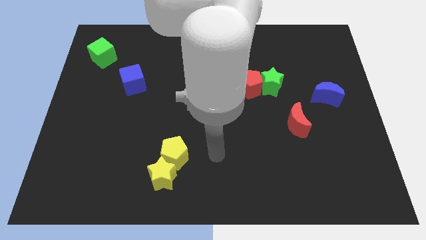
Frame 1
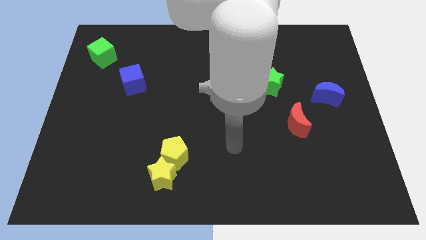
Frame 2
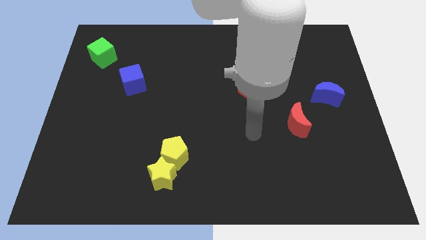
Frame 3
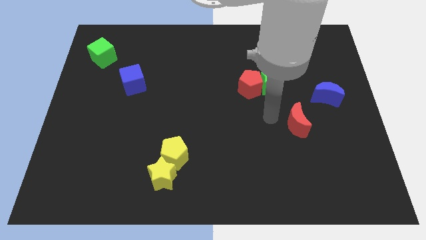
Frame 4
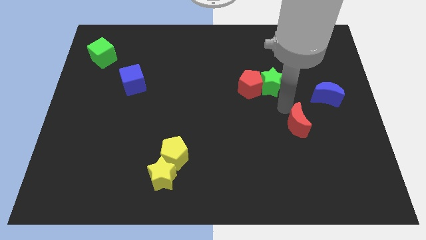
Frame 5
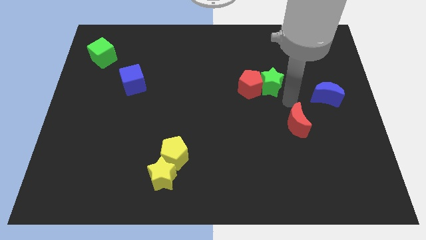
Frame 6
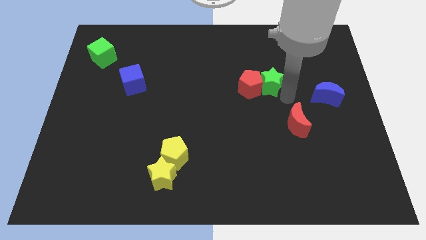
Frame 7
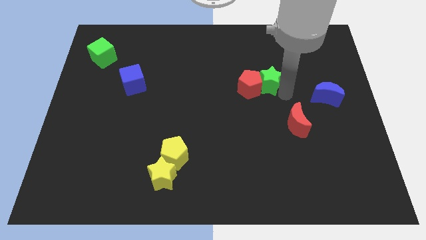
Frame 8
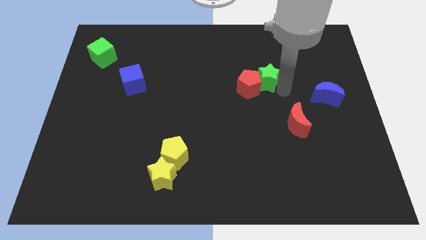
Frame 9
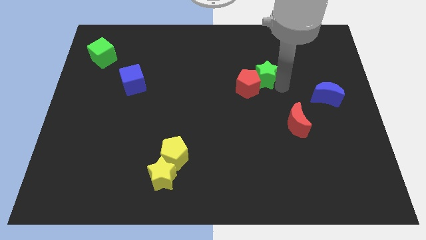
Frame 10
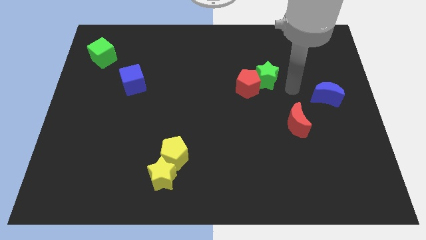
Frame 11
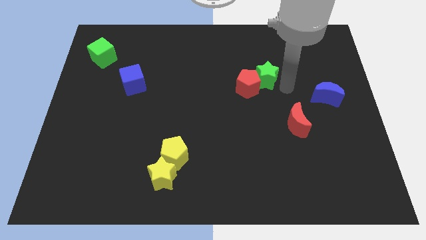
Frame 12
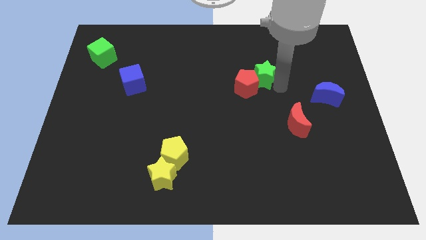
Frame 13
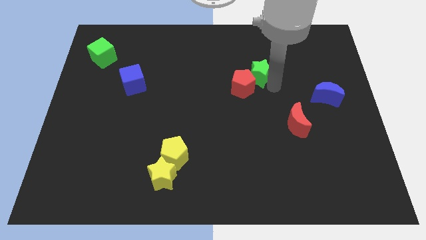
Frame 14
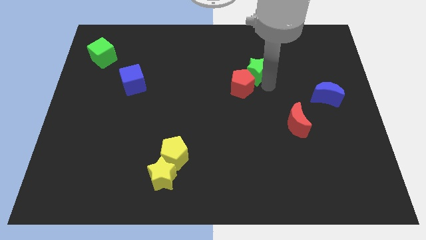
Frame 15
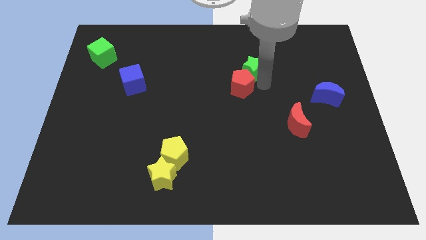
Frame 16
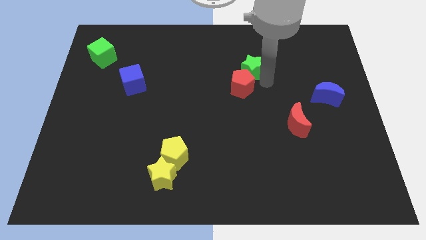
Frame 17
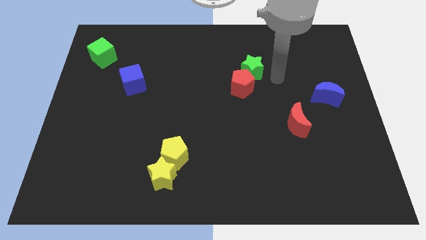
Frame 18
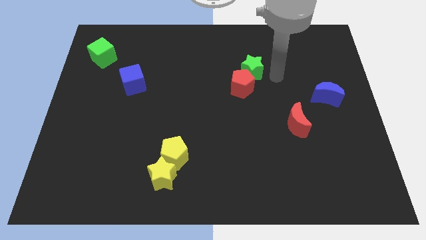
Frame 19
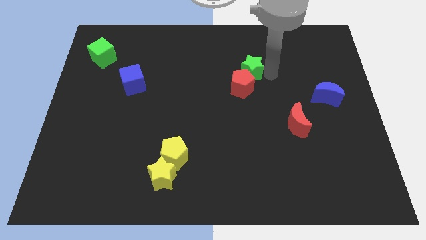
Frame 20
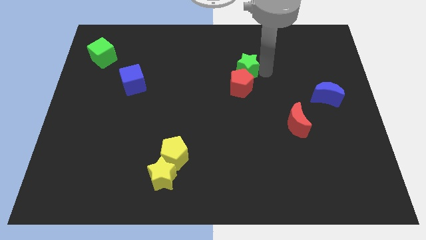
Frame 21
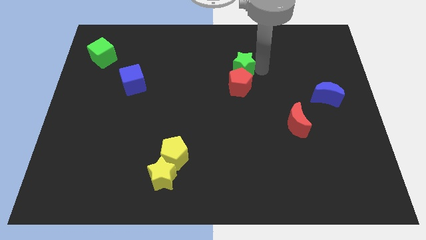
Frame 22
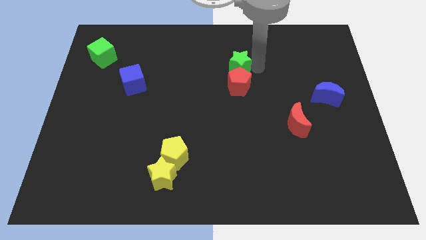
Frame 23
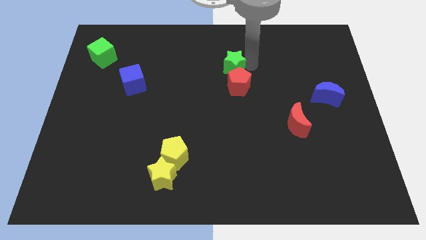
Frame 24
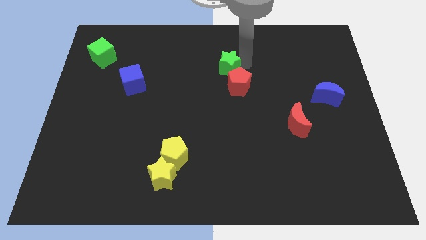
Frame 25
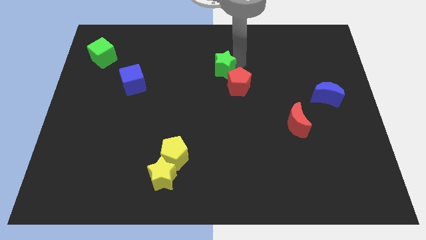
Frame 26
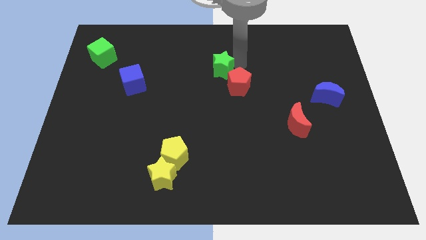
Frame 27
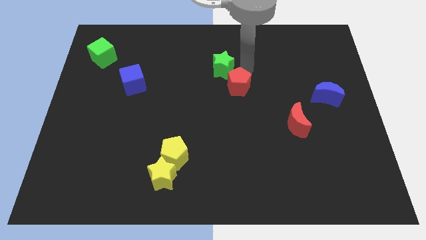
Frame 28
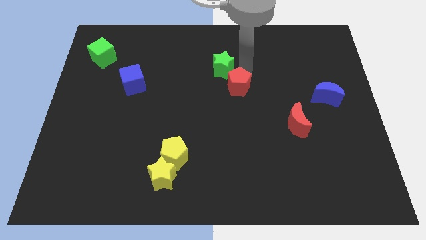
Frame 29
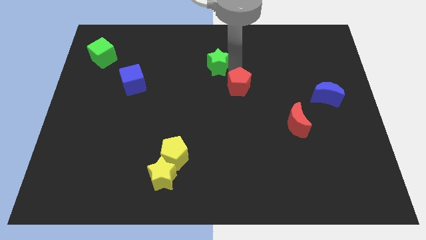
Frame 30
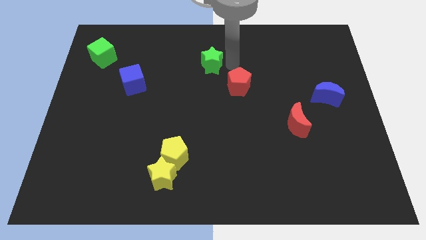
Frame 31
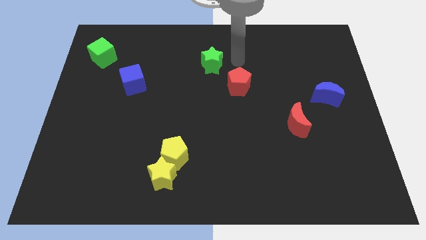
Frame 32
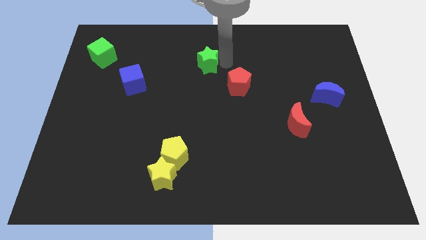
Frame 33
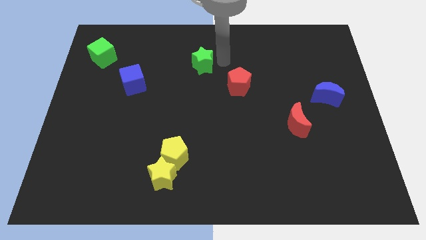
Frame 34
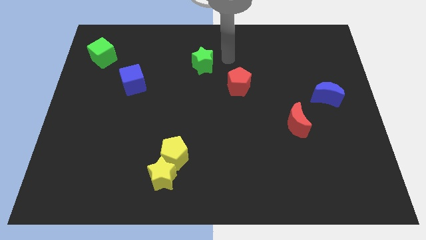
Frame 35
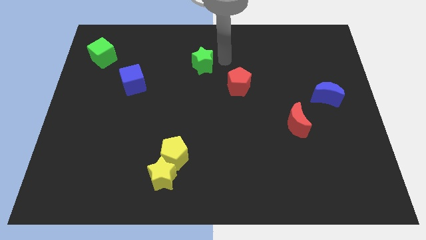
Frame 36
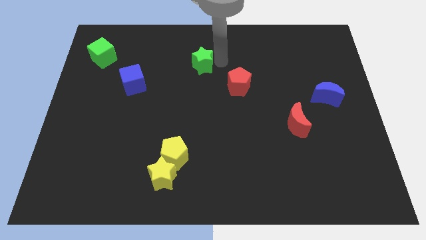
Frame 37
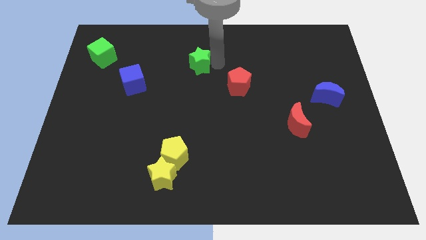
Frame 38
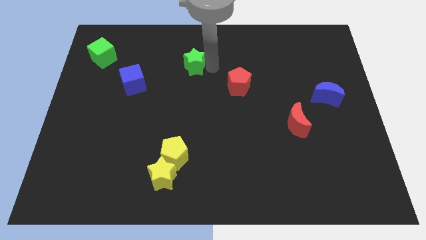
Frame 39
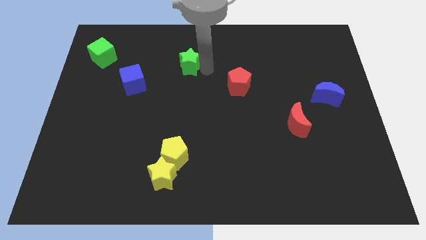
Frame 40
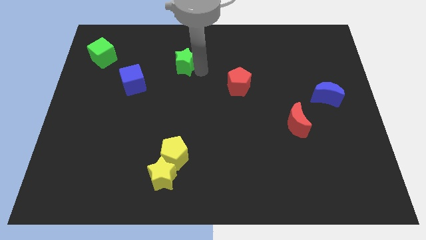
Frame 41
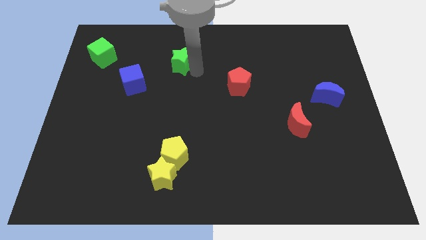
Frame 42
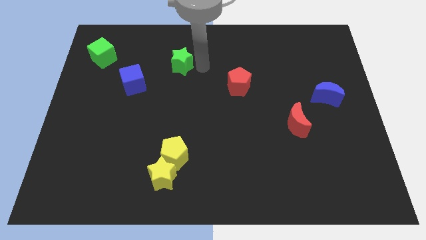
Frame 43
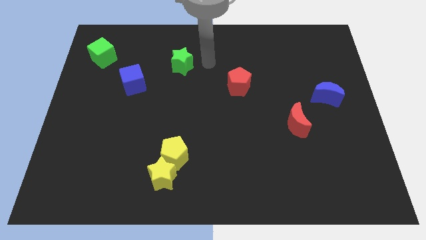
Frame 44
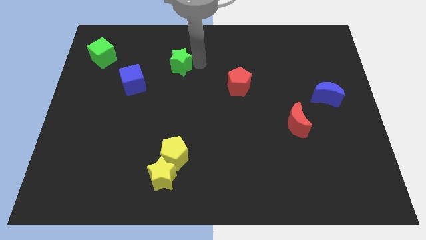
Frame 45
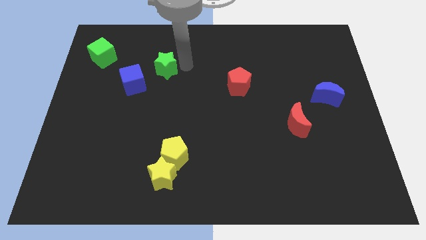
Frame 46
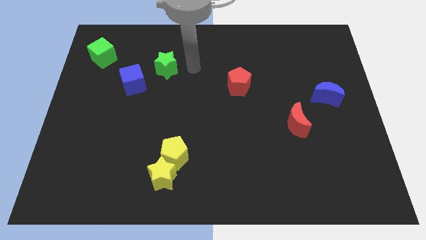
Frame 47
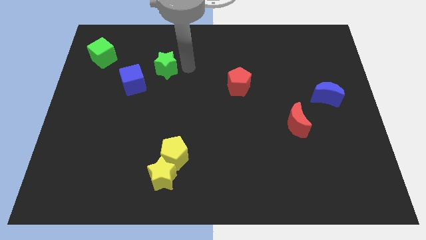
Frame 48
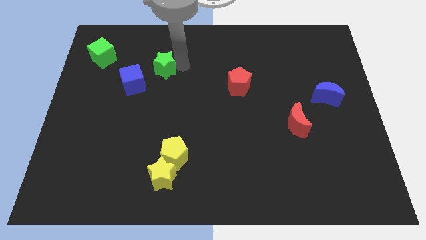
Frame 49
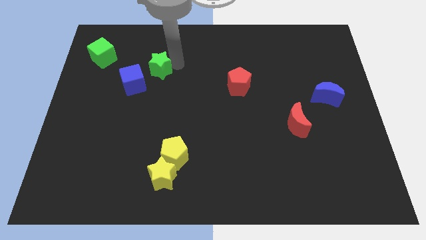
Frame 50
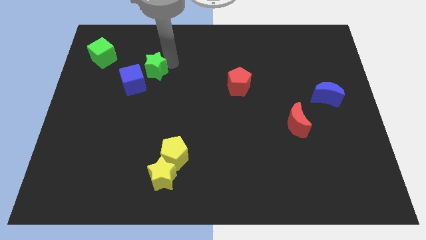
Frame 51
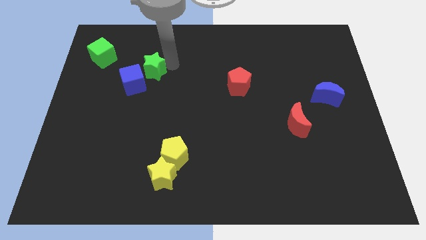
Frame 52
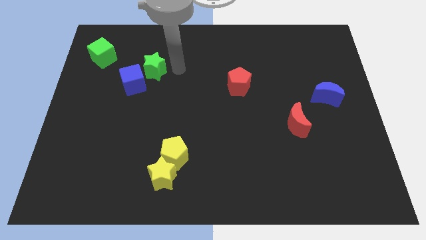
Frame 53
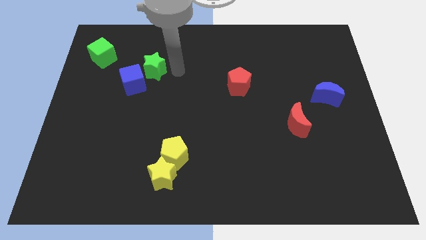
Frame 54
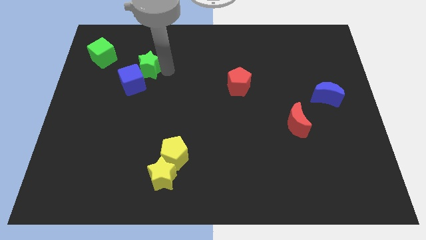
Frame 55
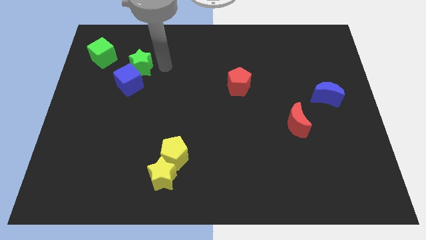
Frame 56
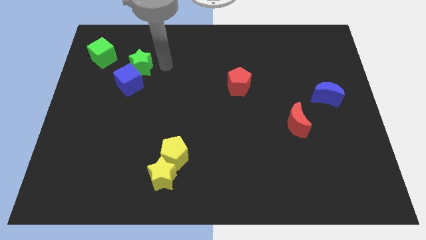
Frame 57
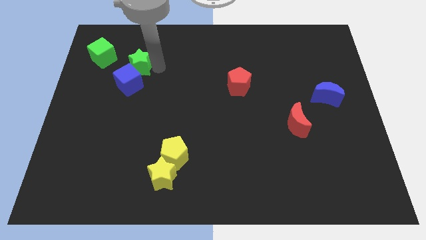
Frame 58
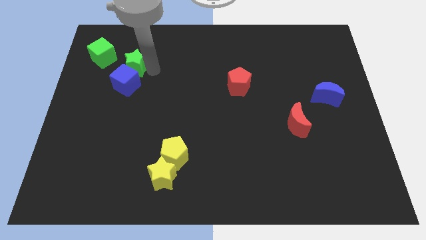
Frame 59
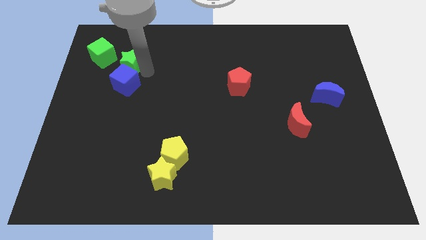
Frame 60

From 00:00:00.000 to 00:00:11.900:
slide the green star to the top left of the blue cube

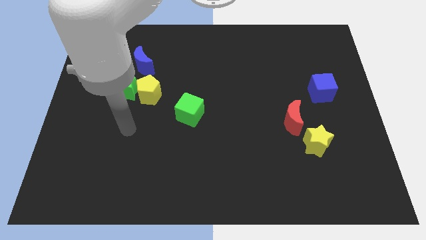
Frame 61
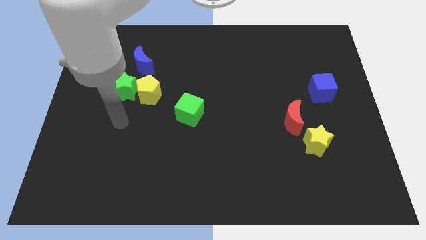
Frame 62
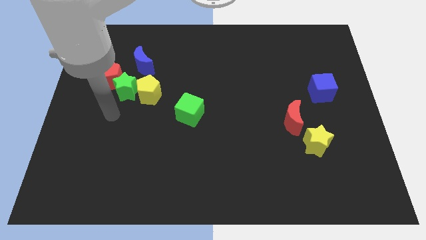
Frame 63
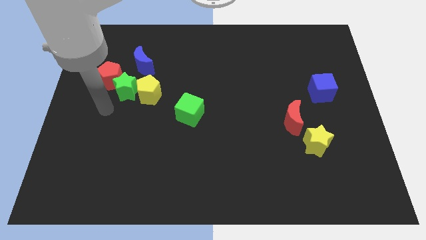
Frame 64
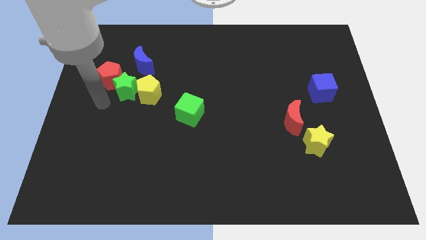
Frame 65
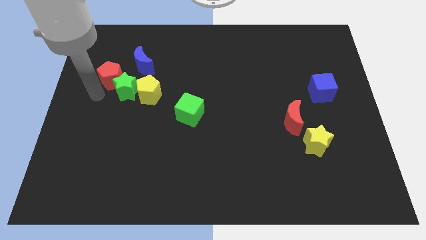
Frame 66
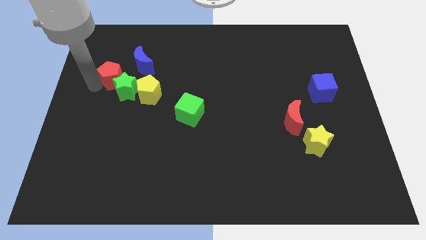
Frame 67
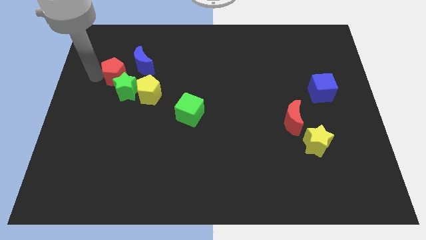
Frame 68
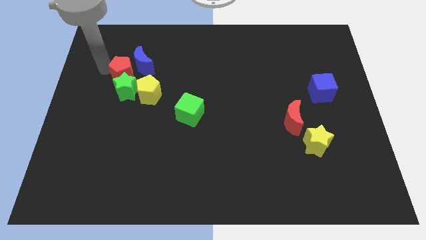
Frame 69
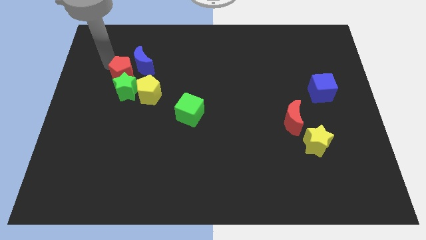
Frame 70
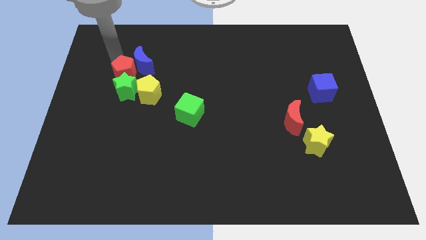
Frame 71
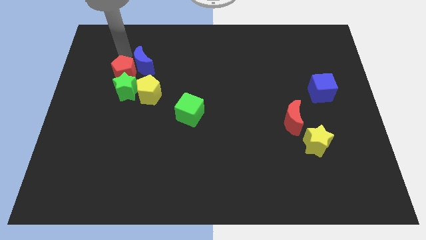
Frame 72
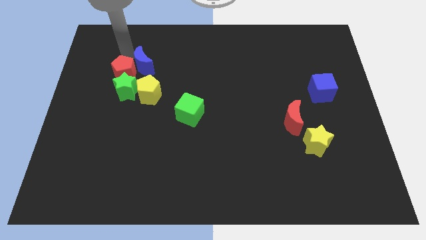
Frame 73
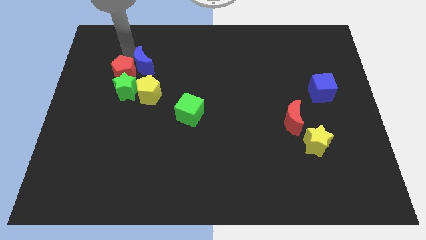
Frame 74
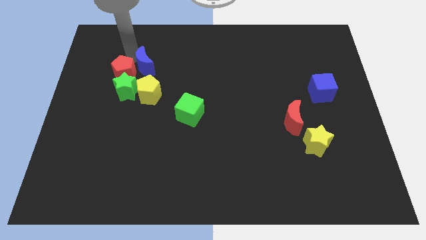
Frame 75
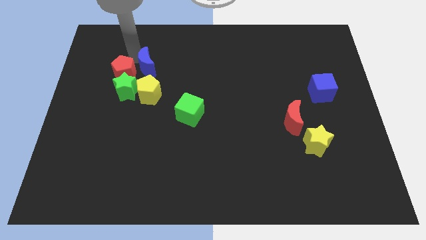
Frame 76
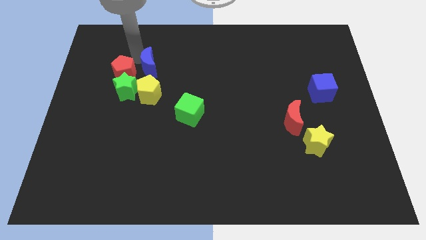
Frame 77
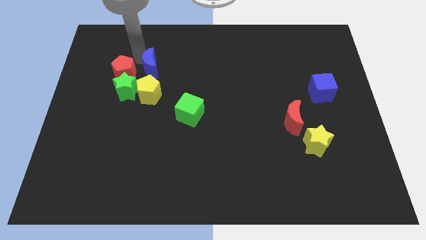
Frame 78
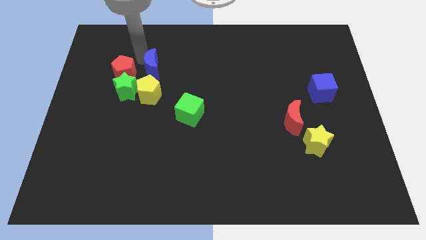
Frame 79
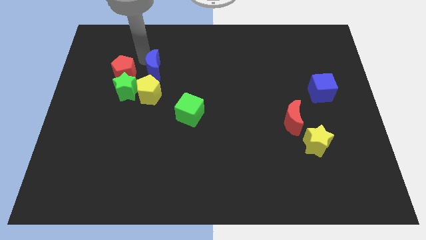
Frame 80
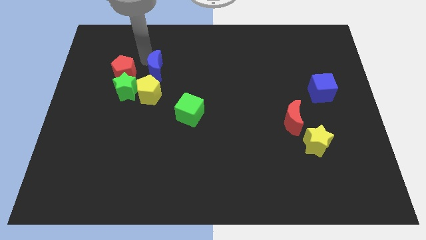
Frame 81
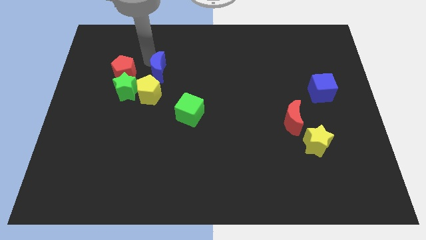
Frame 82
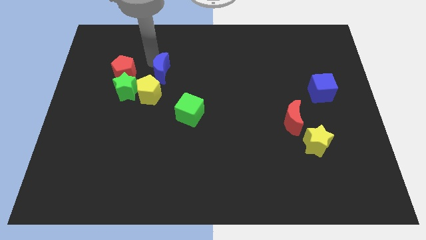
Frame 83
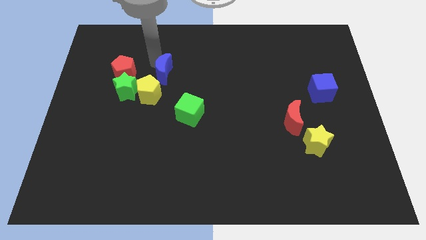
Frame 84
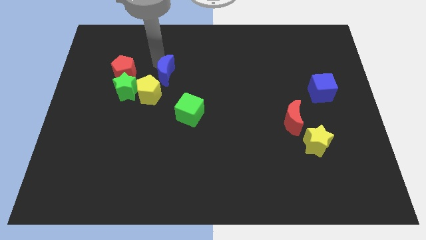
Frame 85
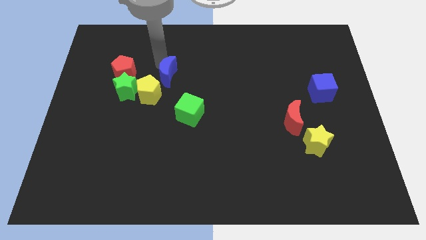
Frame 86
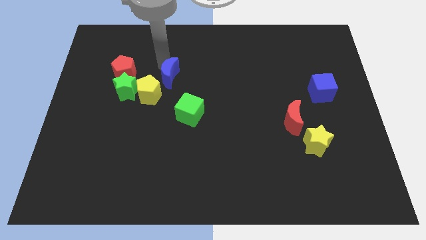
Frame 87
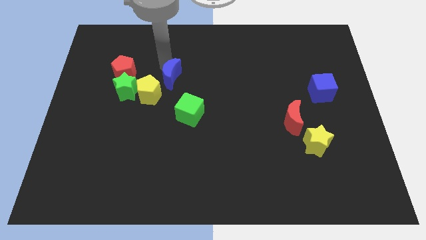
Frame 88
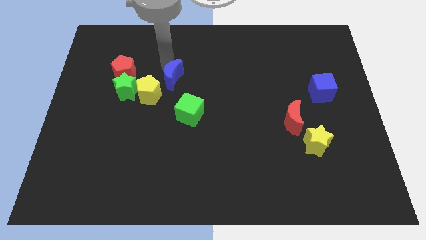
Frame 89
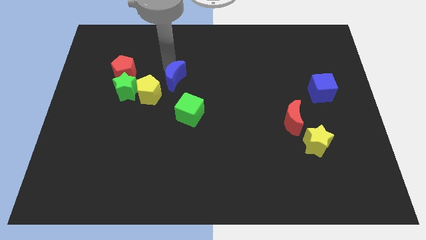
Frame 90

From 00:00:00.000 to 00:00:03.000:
slide the blue moon right of the yellow pentagon
